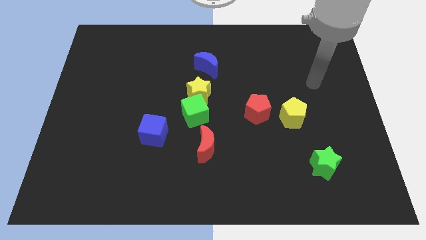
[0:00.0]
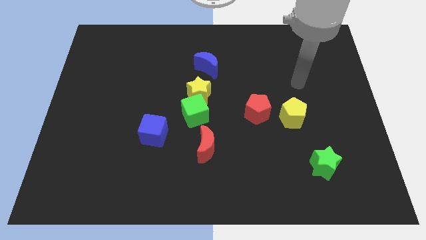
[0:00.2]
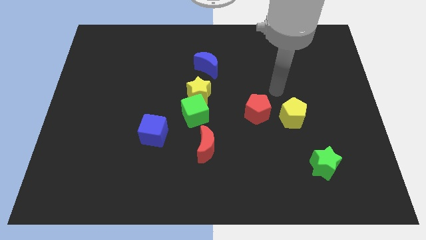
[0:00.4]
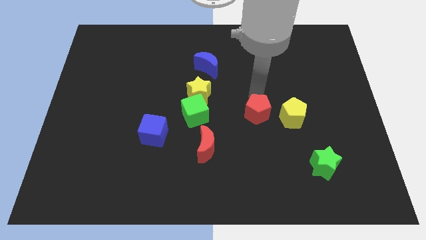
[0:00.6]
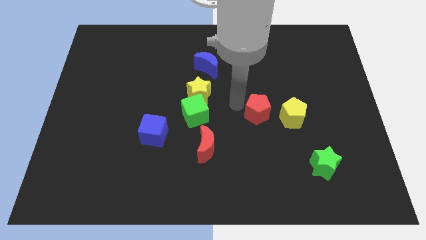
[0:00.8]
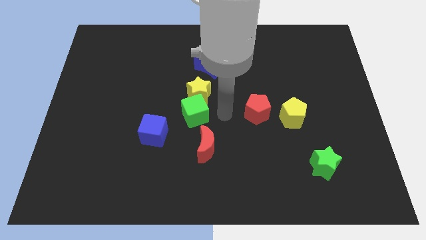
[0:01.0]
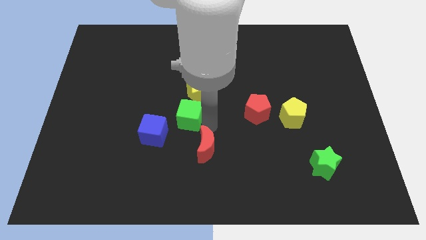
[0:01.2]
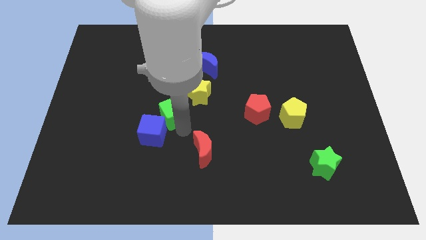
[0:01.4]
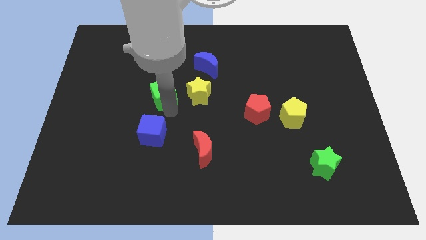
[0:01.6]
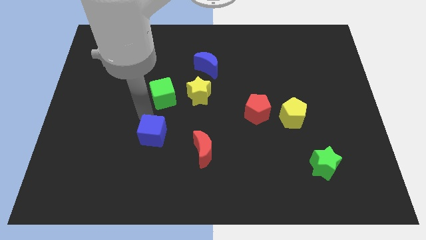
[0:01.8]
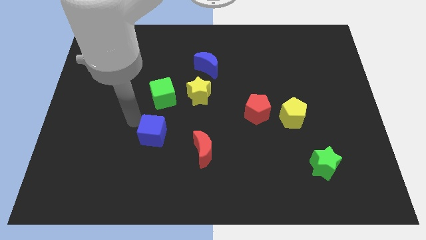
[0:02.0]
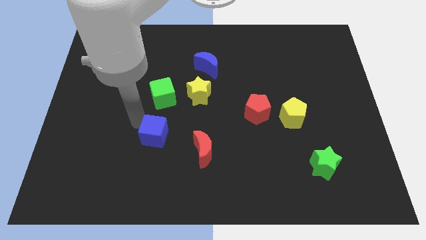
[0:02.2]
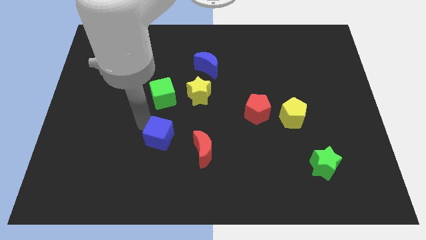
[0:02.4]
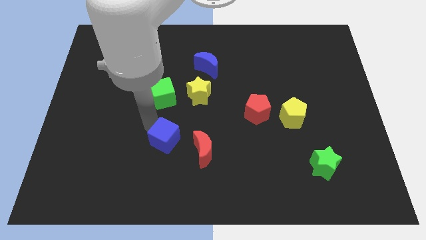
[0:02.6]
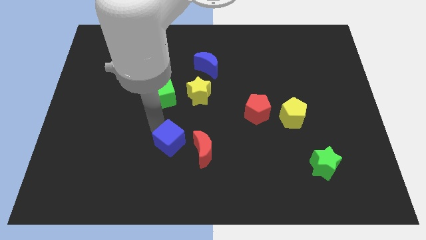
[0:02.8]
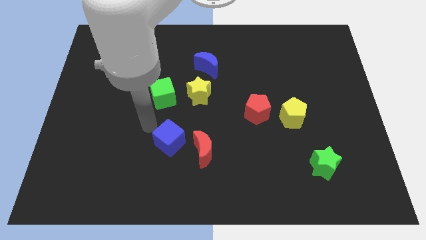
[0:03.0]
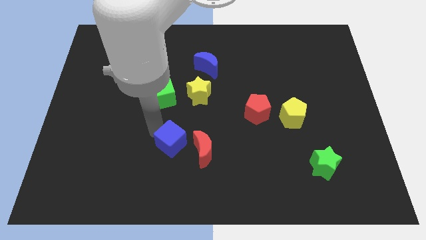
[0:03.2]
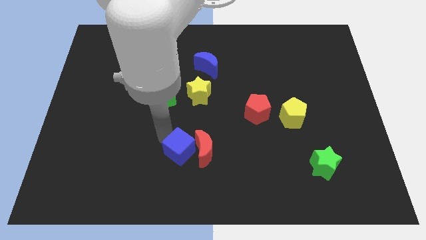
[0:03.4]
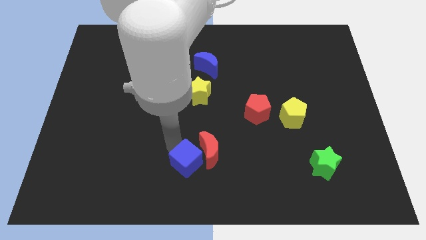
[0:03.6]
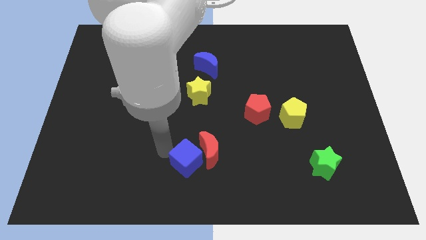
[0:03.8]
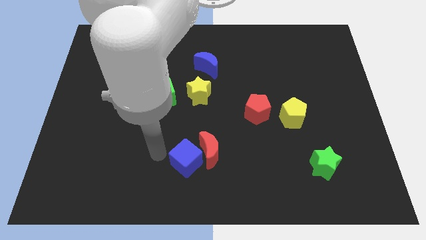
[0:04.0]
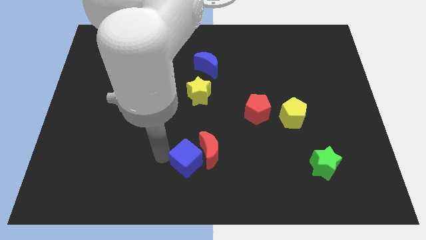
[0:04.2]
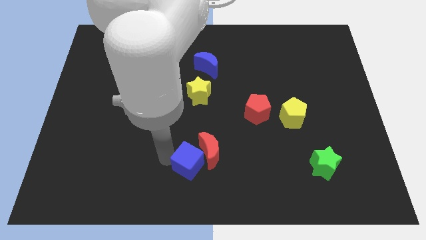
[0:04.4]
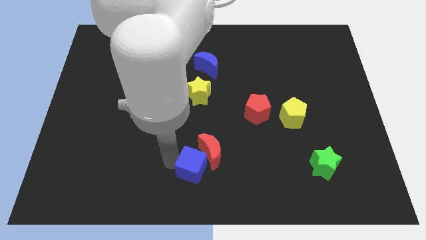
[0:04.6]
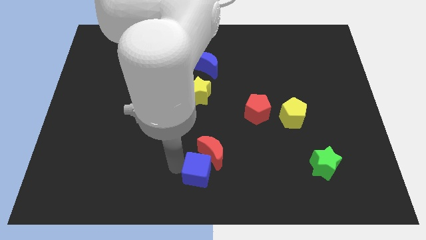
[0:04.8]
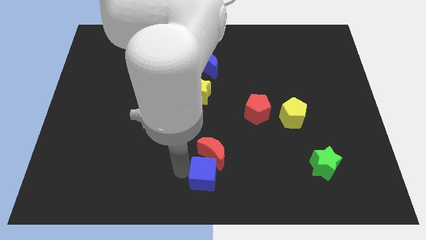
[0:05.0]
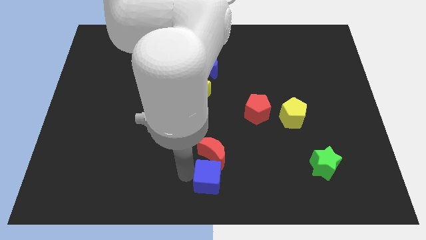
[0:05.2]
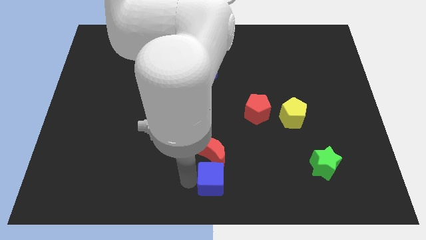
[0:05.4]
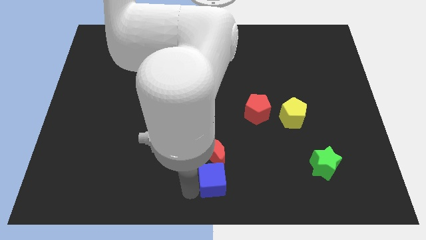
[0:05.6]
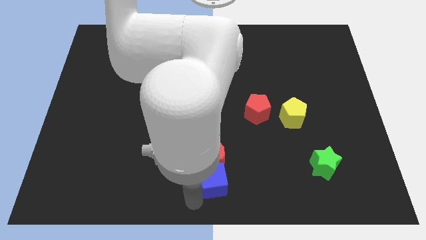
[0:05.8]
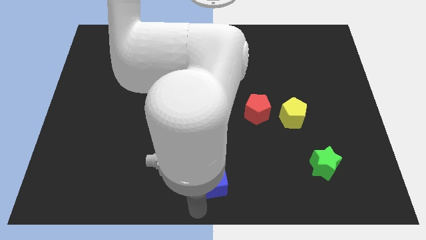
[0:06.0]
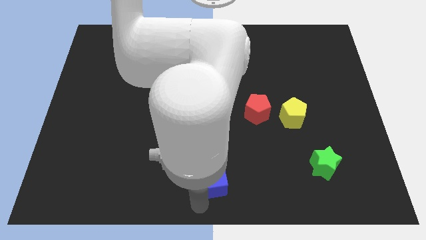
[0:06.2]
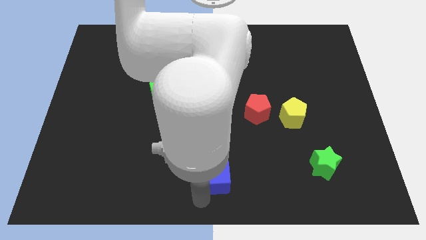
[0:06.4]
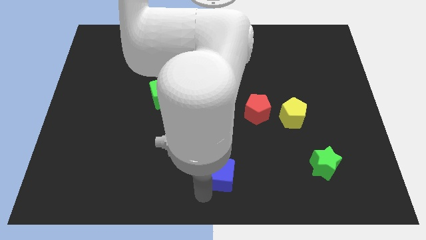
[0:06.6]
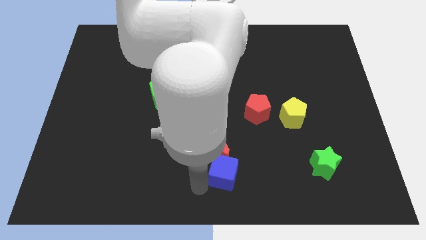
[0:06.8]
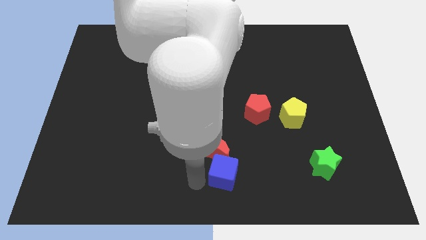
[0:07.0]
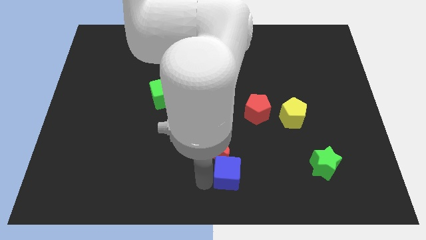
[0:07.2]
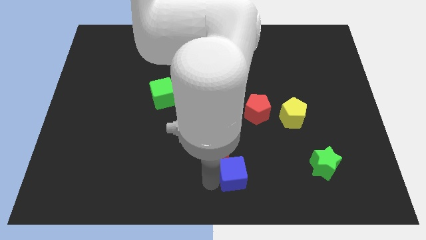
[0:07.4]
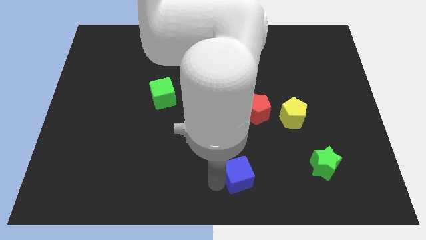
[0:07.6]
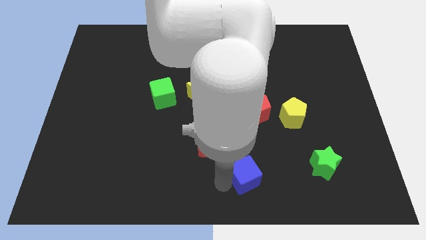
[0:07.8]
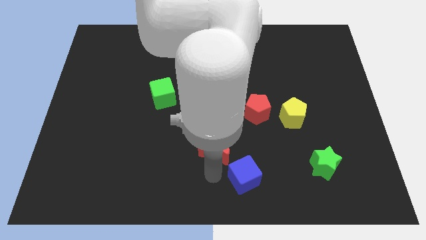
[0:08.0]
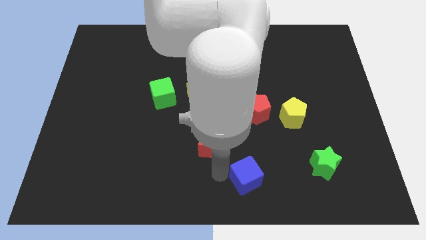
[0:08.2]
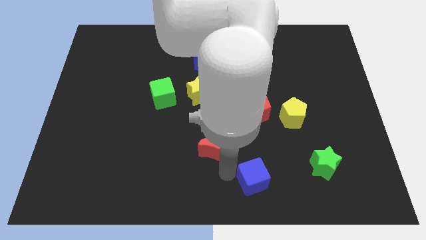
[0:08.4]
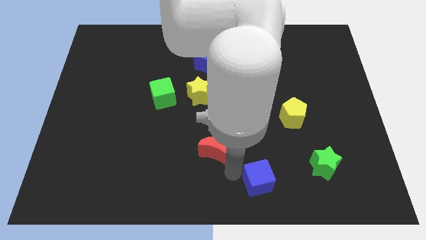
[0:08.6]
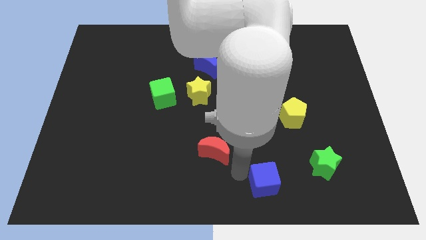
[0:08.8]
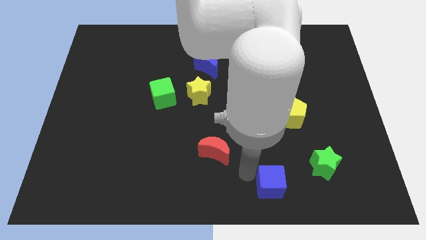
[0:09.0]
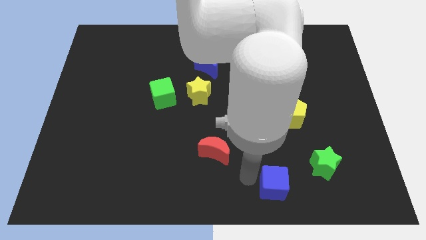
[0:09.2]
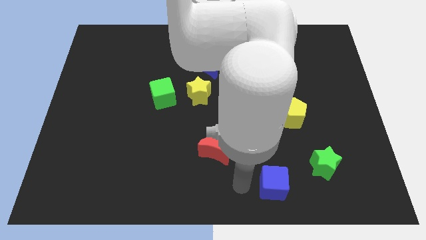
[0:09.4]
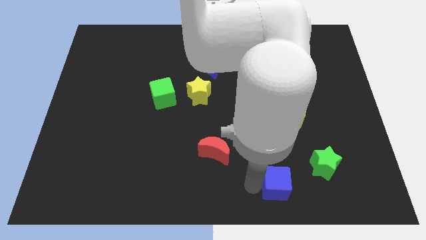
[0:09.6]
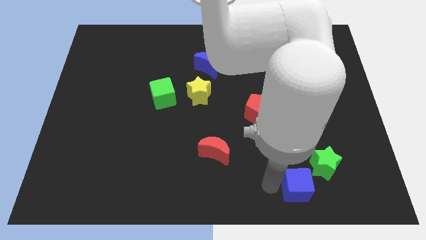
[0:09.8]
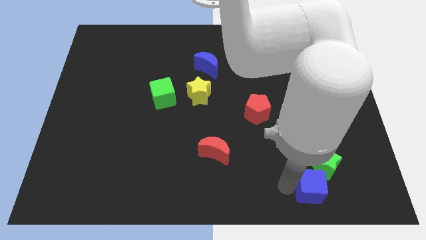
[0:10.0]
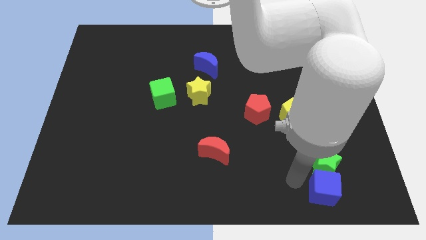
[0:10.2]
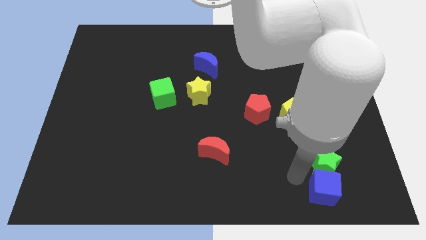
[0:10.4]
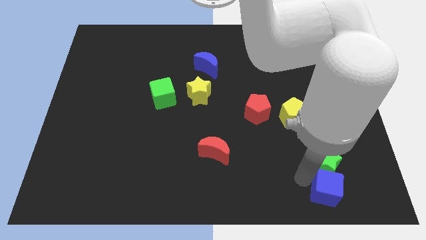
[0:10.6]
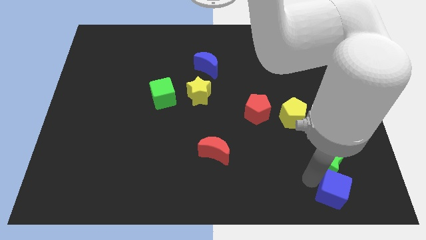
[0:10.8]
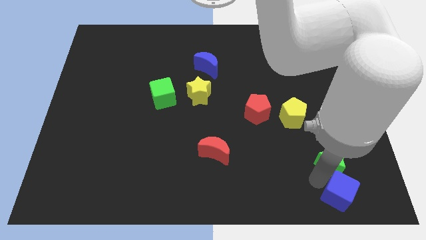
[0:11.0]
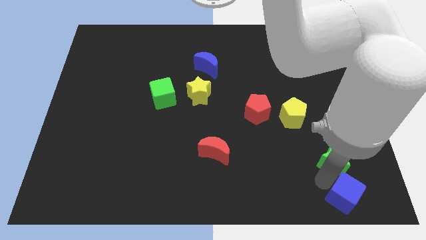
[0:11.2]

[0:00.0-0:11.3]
slide the blue cube to the bottom right corner

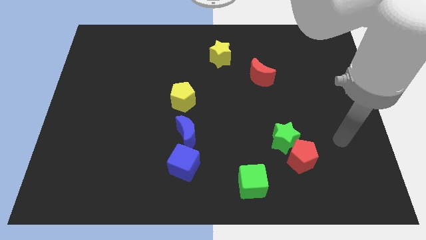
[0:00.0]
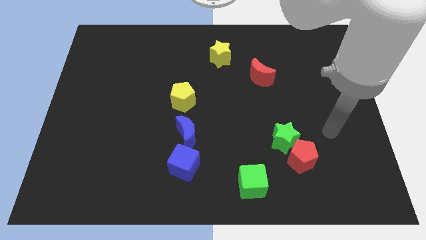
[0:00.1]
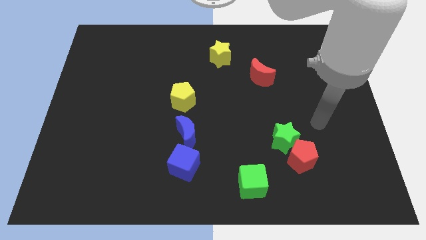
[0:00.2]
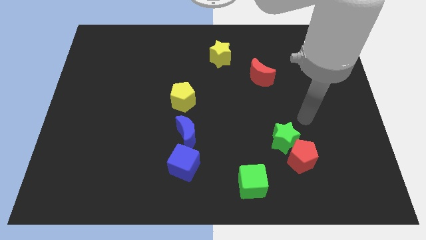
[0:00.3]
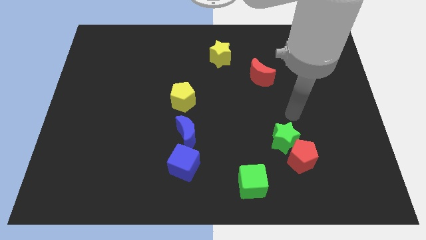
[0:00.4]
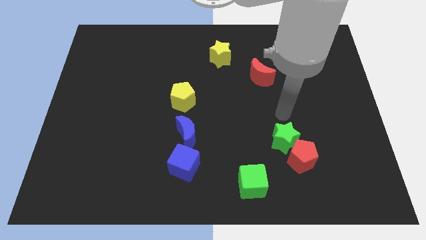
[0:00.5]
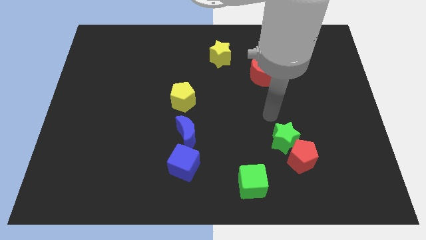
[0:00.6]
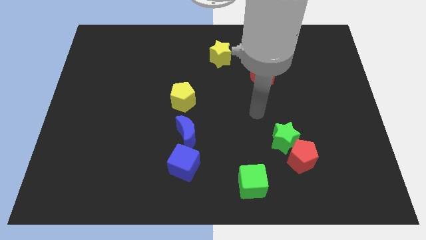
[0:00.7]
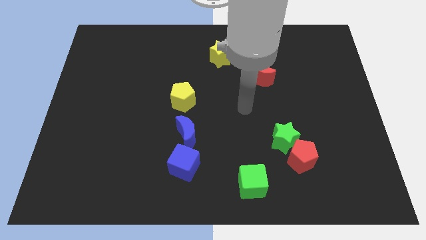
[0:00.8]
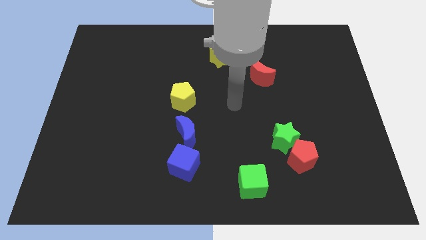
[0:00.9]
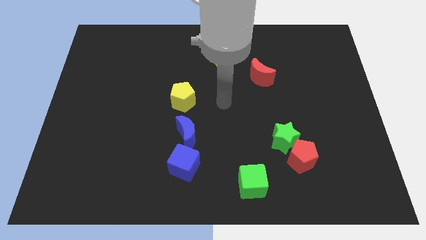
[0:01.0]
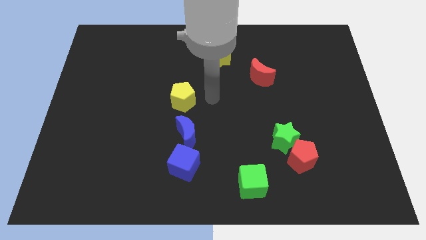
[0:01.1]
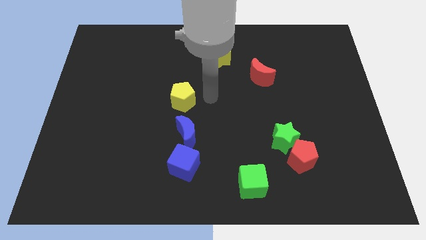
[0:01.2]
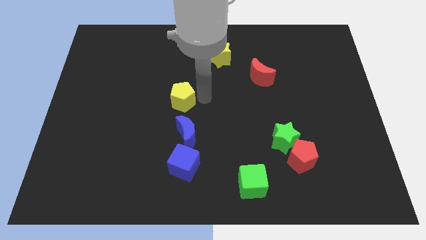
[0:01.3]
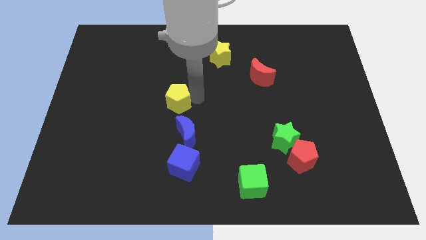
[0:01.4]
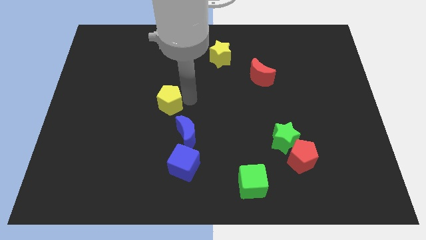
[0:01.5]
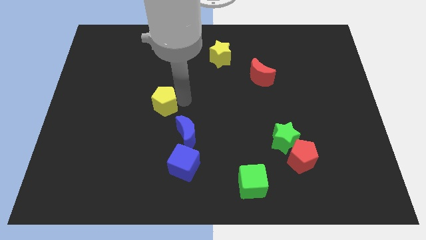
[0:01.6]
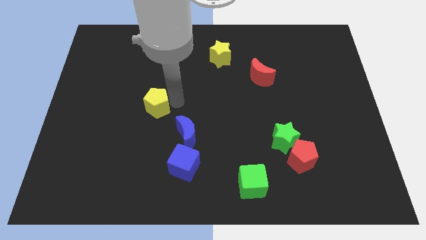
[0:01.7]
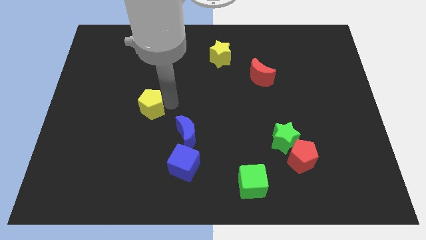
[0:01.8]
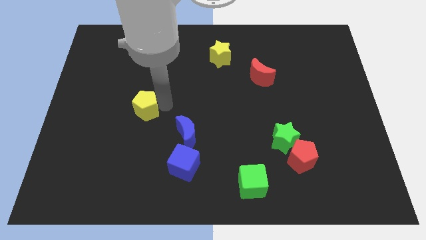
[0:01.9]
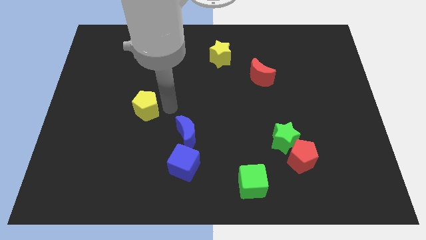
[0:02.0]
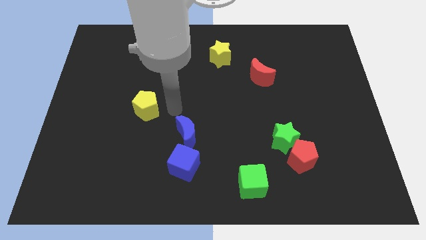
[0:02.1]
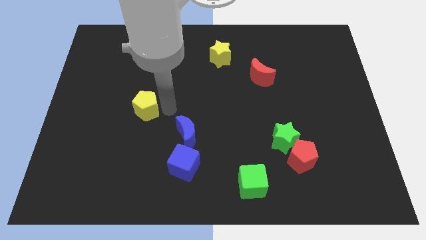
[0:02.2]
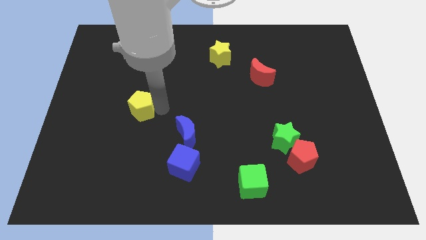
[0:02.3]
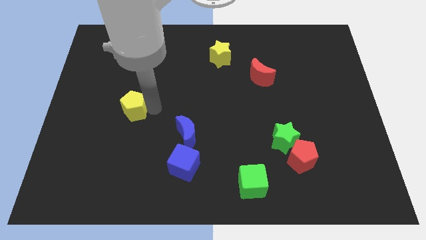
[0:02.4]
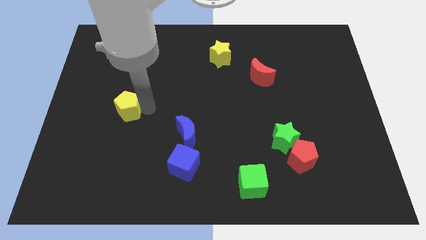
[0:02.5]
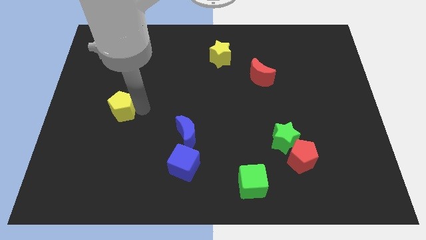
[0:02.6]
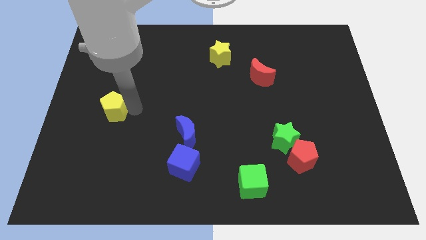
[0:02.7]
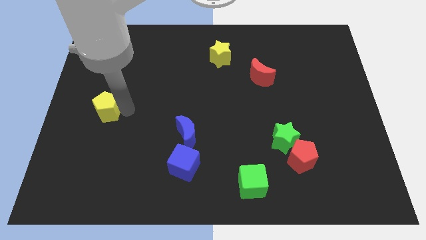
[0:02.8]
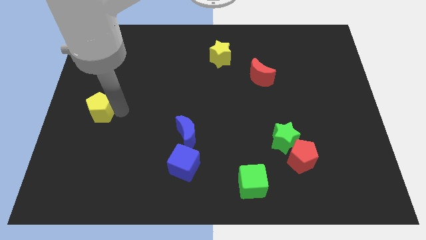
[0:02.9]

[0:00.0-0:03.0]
put the yellow pentagon to the left side of the board
